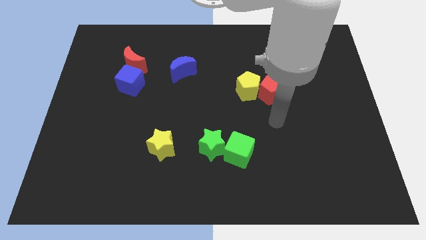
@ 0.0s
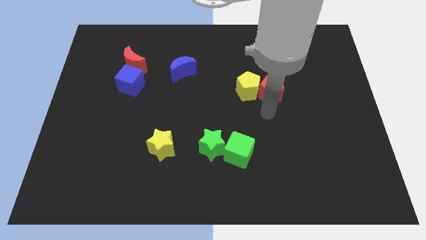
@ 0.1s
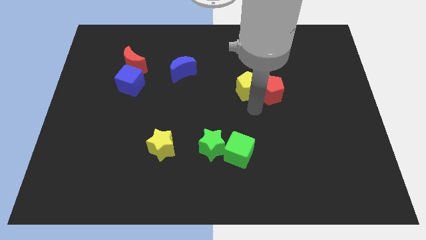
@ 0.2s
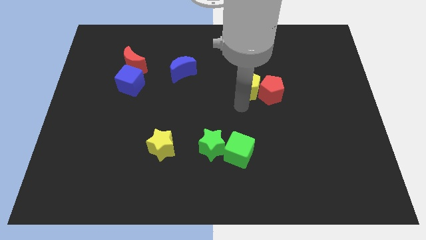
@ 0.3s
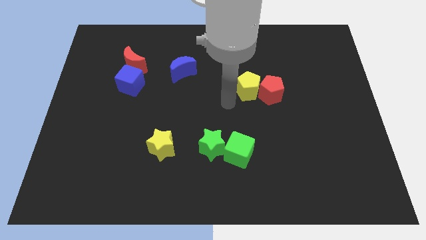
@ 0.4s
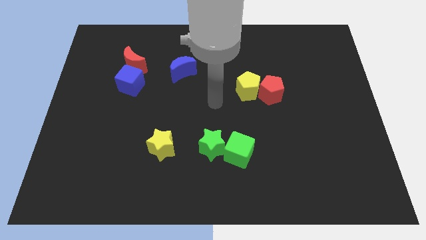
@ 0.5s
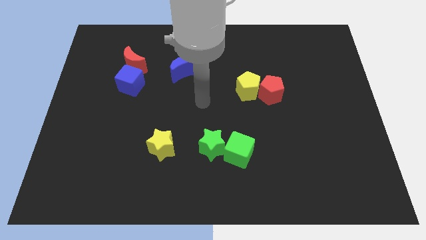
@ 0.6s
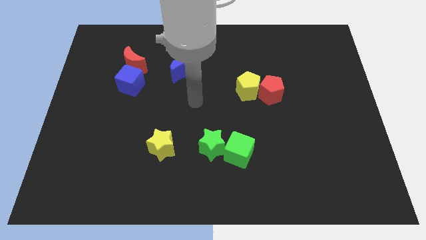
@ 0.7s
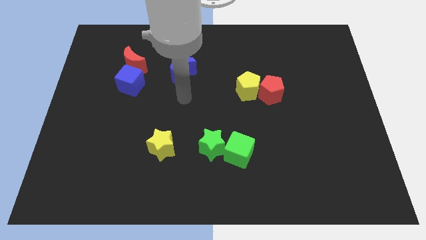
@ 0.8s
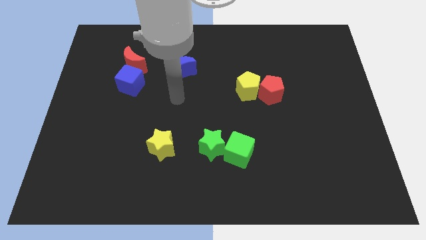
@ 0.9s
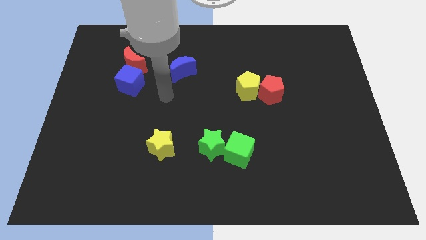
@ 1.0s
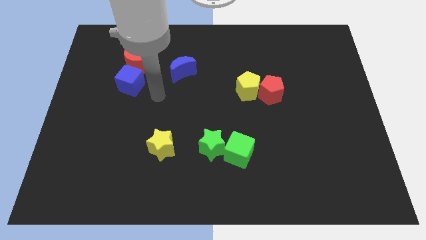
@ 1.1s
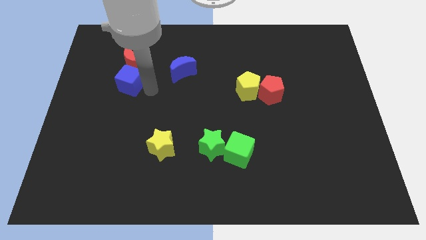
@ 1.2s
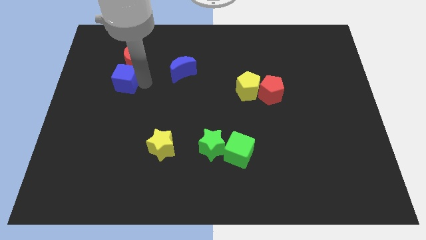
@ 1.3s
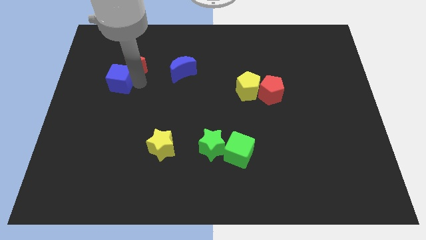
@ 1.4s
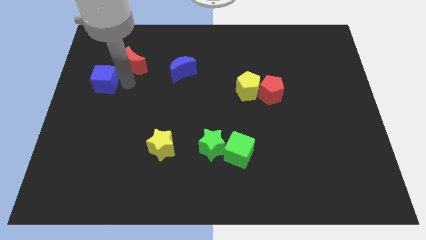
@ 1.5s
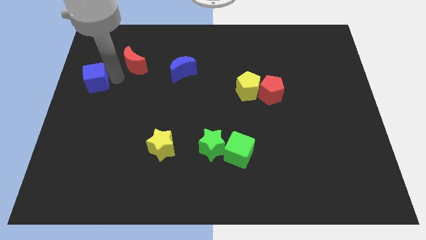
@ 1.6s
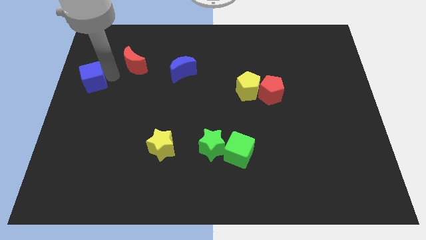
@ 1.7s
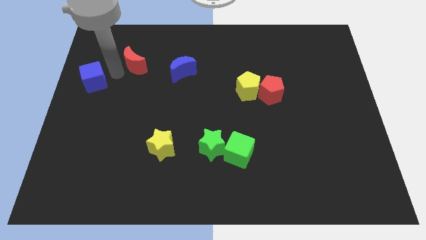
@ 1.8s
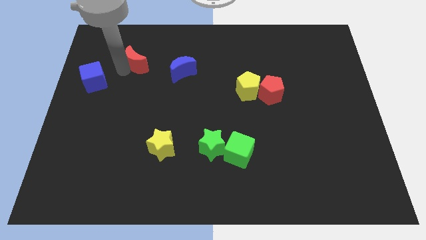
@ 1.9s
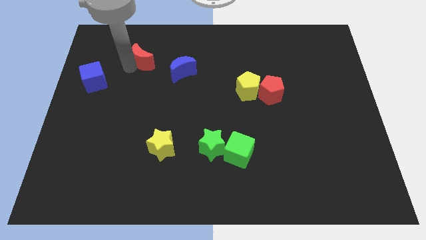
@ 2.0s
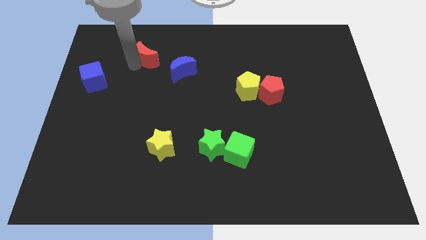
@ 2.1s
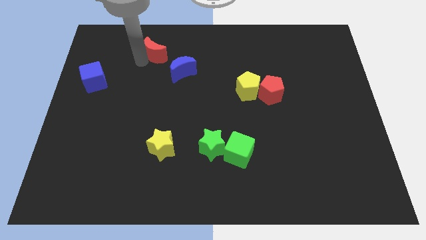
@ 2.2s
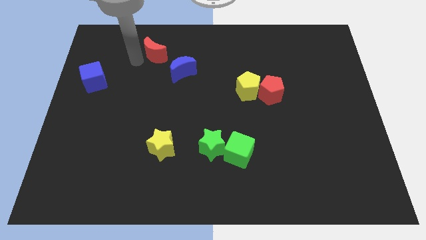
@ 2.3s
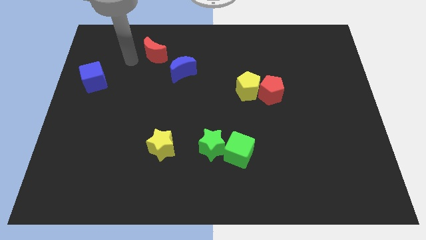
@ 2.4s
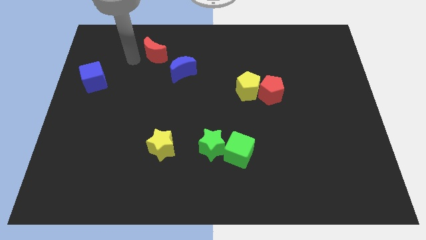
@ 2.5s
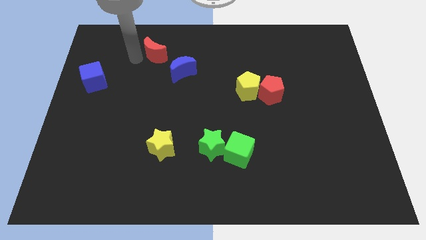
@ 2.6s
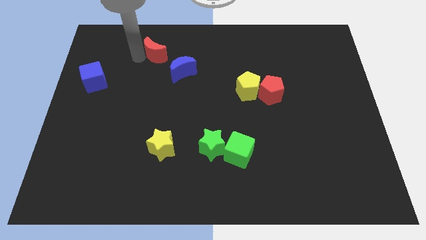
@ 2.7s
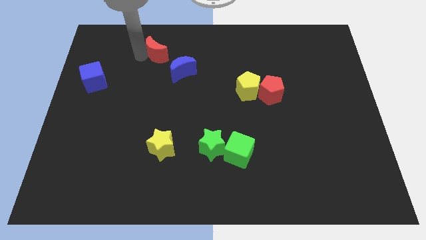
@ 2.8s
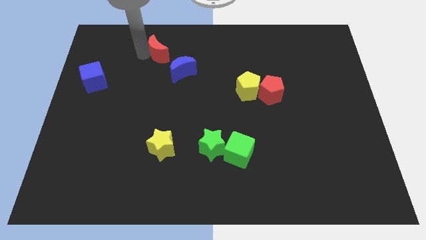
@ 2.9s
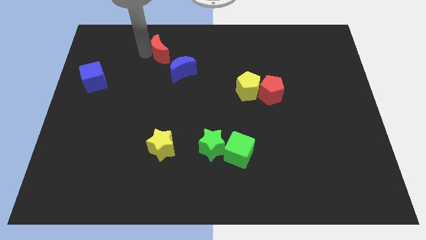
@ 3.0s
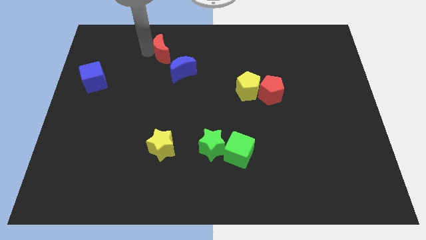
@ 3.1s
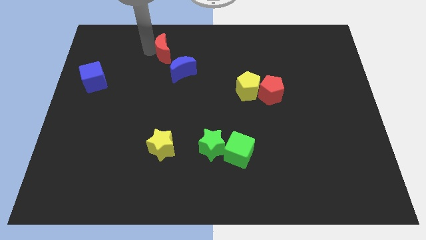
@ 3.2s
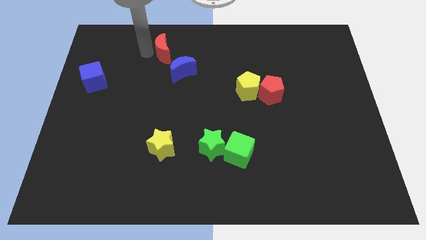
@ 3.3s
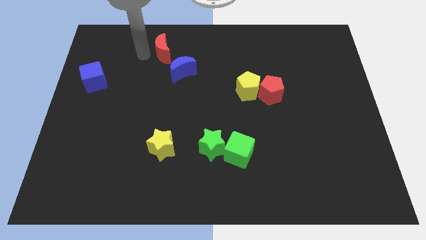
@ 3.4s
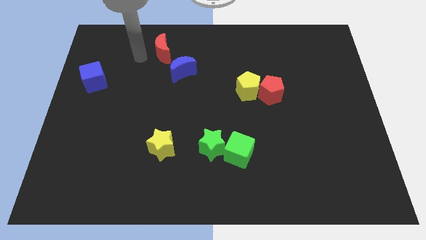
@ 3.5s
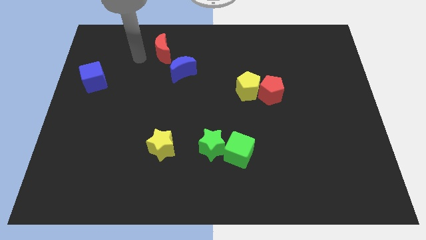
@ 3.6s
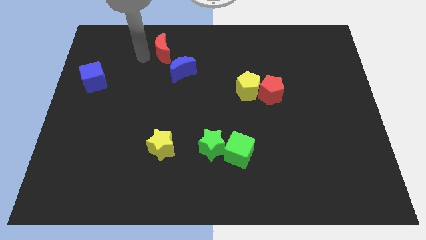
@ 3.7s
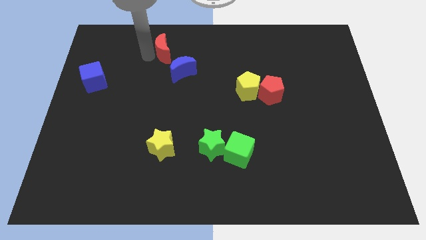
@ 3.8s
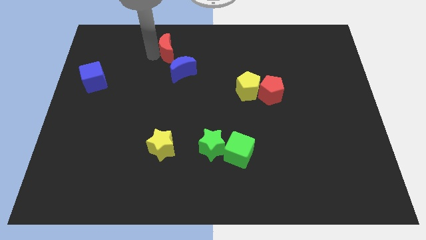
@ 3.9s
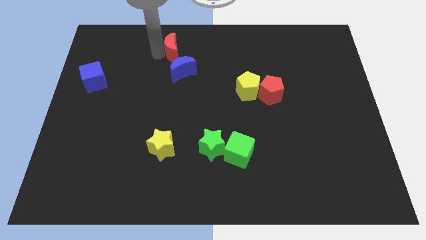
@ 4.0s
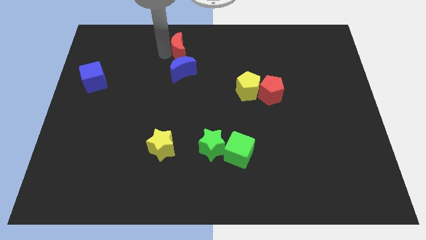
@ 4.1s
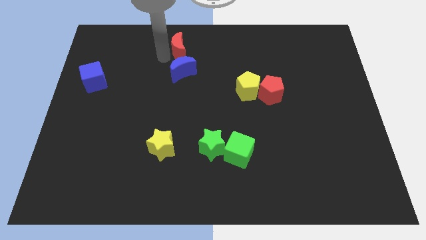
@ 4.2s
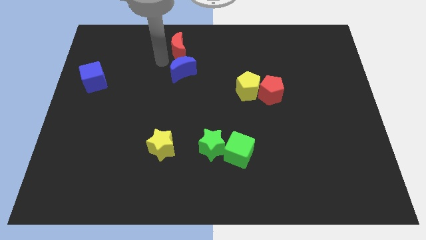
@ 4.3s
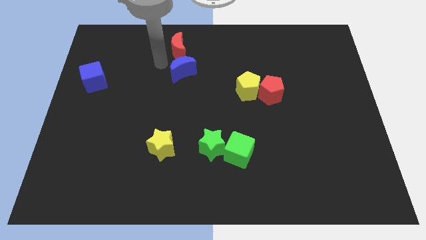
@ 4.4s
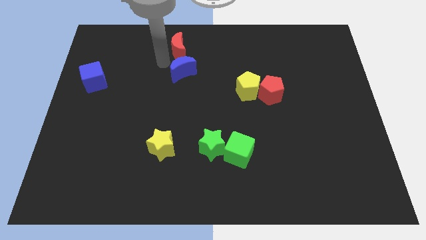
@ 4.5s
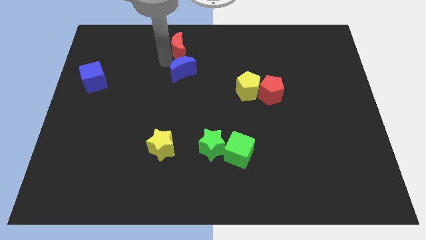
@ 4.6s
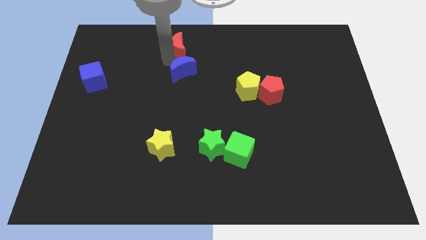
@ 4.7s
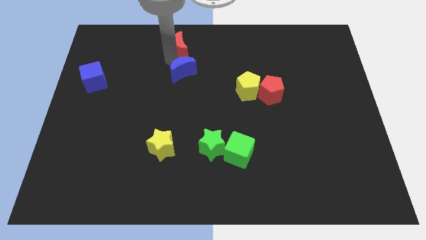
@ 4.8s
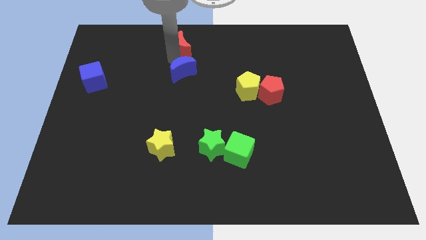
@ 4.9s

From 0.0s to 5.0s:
slide the red moon to the top side

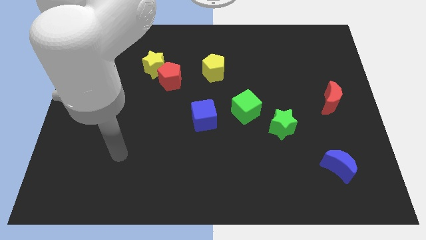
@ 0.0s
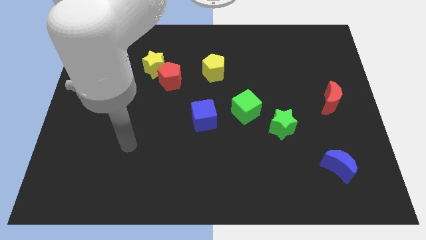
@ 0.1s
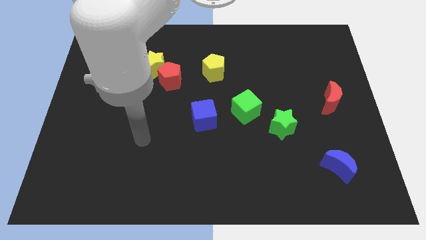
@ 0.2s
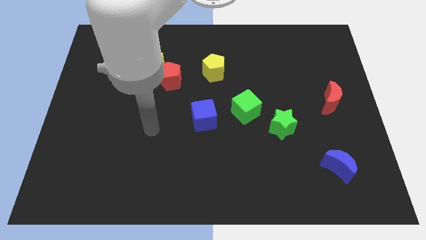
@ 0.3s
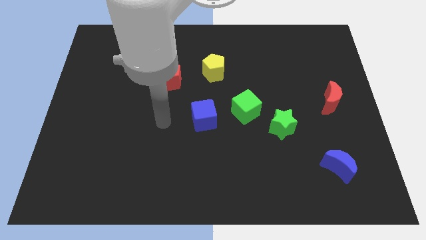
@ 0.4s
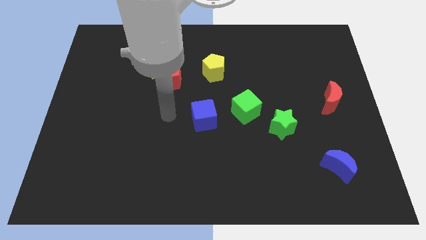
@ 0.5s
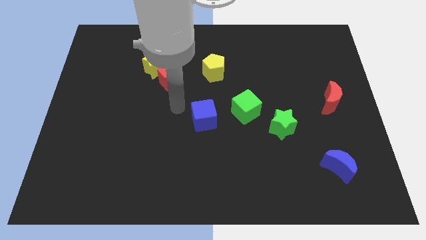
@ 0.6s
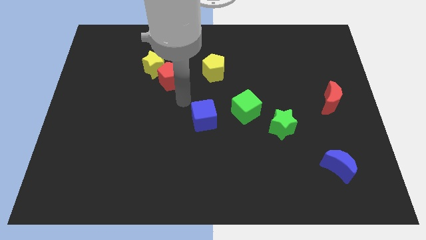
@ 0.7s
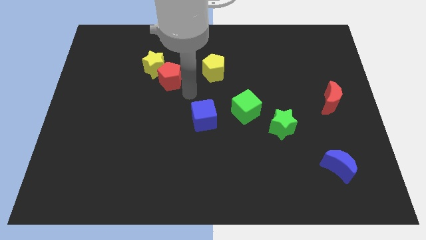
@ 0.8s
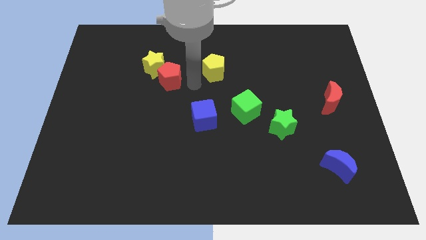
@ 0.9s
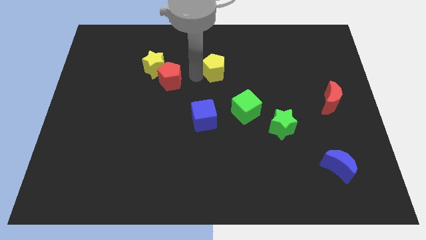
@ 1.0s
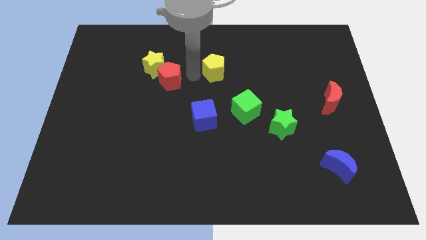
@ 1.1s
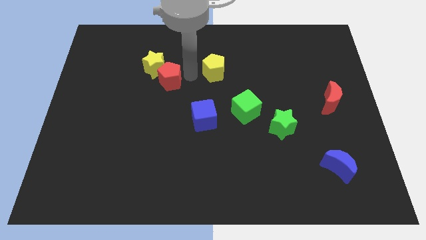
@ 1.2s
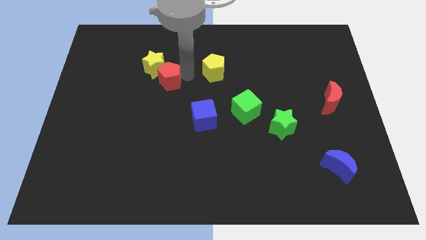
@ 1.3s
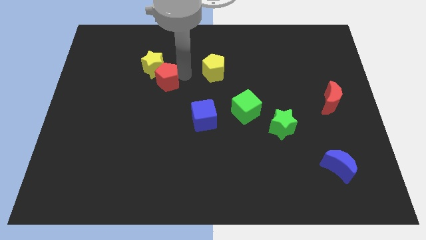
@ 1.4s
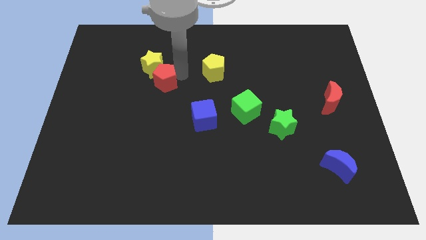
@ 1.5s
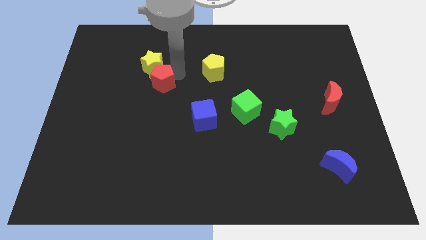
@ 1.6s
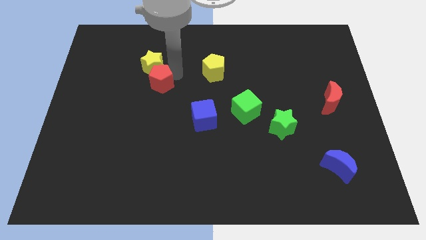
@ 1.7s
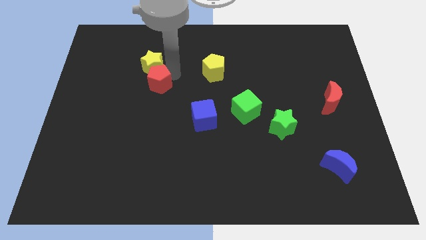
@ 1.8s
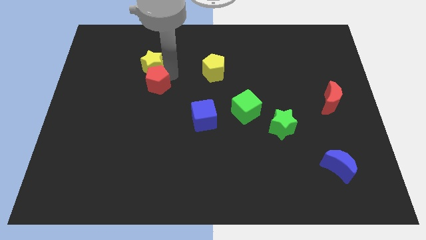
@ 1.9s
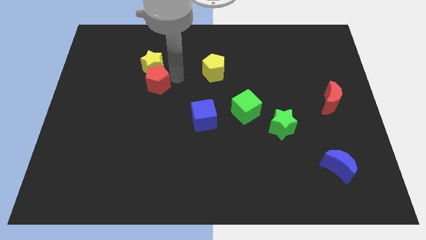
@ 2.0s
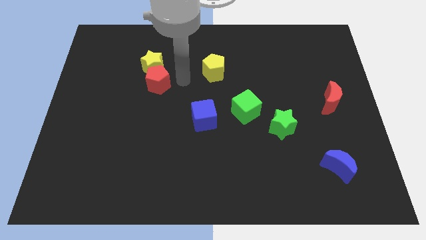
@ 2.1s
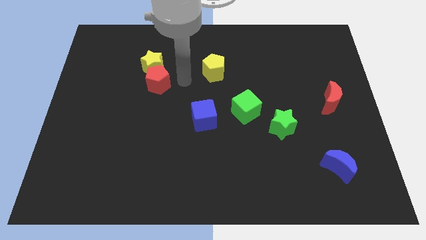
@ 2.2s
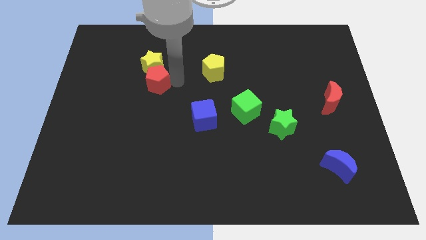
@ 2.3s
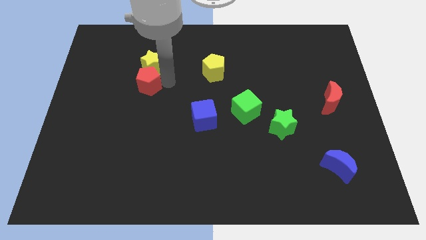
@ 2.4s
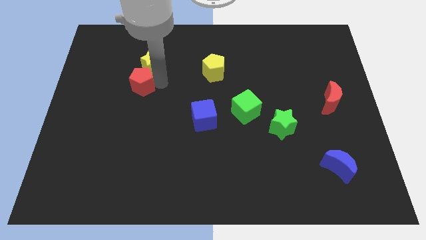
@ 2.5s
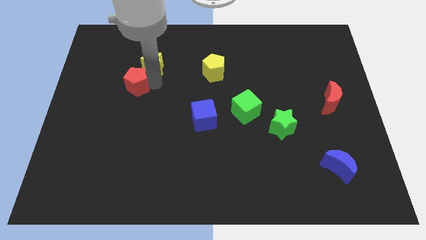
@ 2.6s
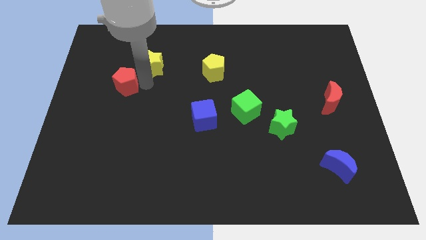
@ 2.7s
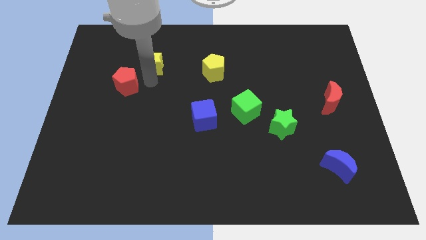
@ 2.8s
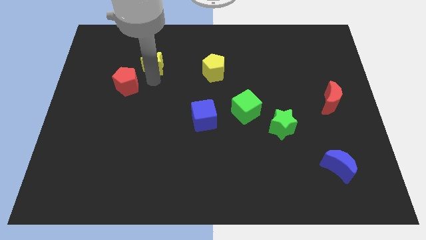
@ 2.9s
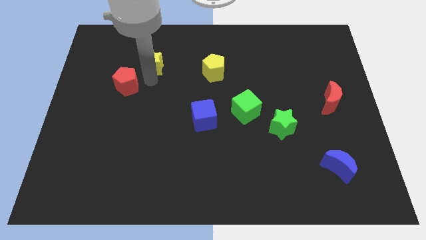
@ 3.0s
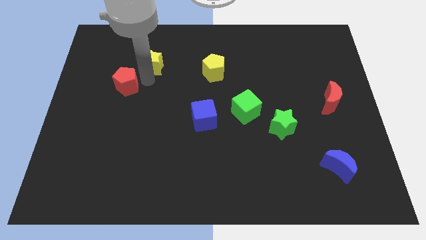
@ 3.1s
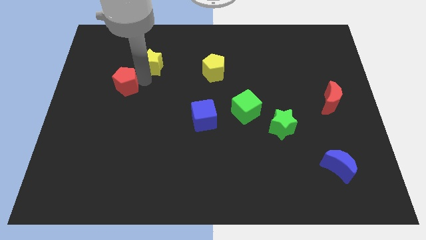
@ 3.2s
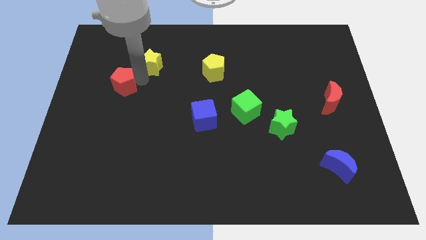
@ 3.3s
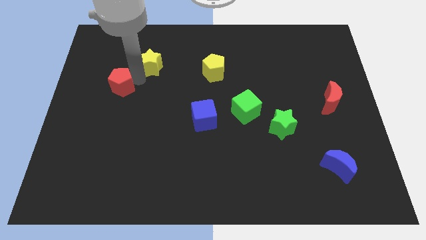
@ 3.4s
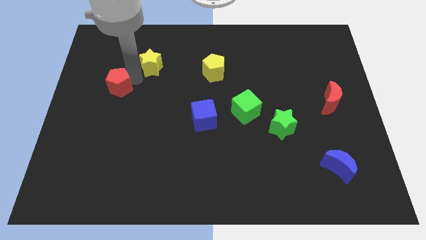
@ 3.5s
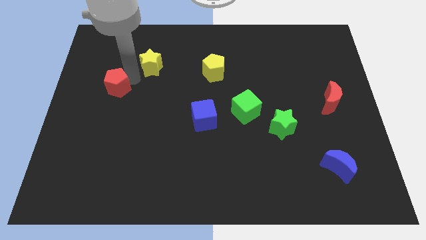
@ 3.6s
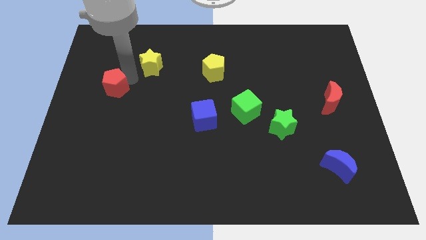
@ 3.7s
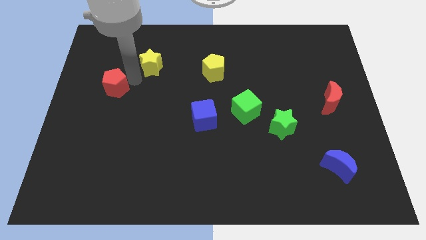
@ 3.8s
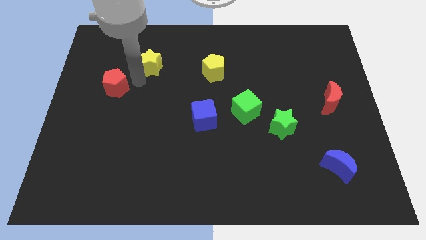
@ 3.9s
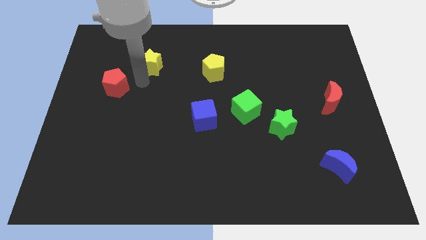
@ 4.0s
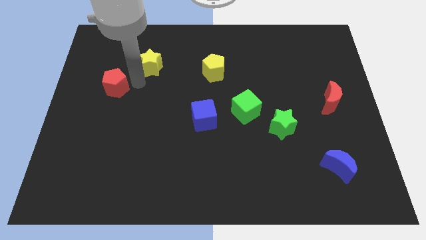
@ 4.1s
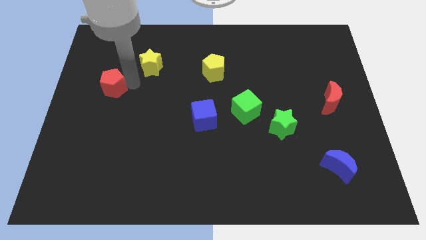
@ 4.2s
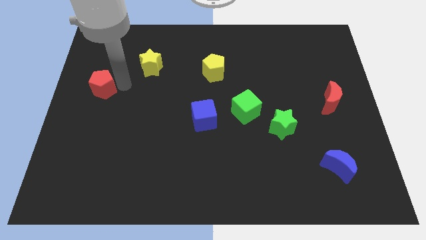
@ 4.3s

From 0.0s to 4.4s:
move the red pentagon to the center left
